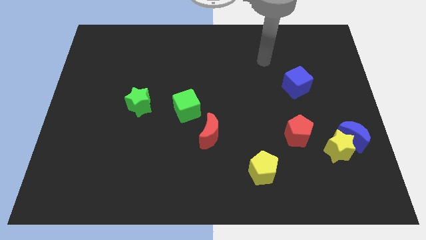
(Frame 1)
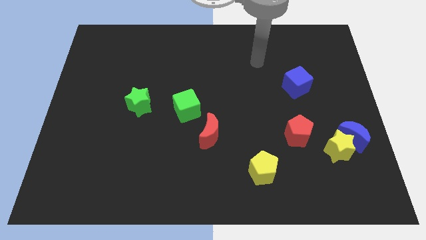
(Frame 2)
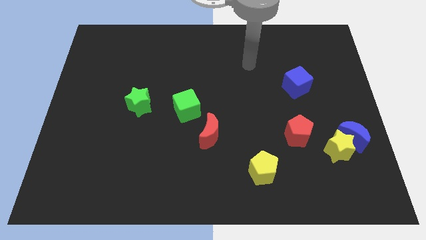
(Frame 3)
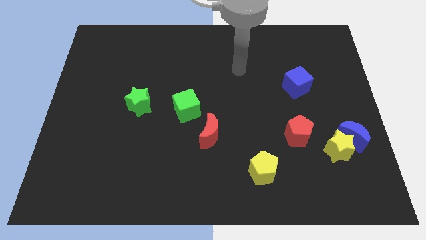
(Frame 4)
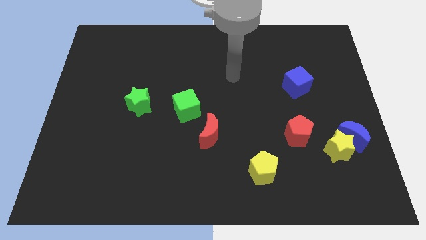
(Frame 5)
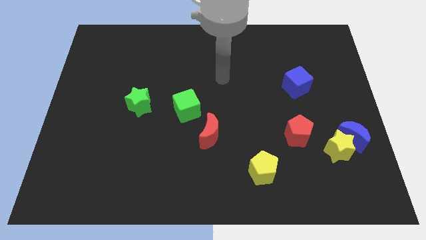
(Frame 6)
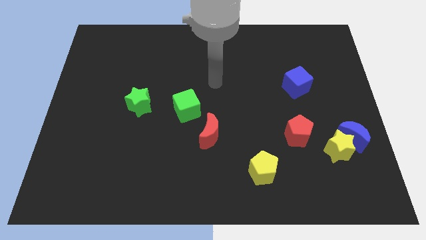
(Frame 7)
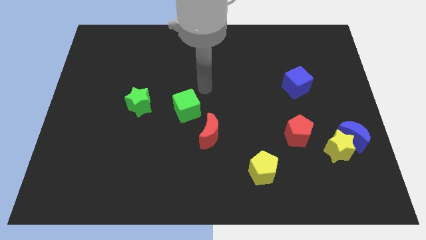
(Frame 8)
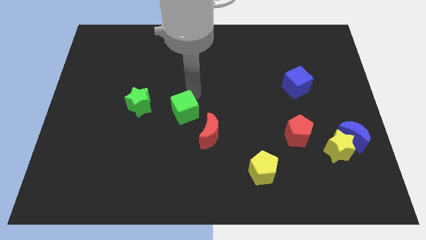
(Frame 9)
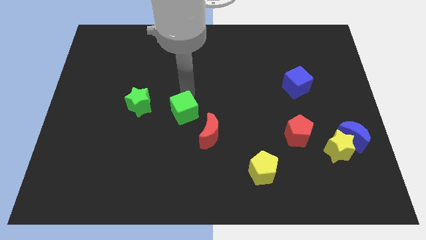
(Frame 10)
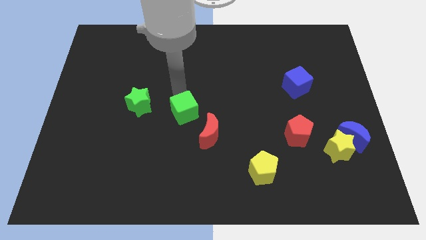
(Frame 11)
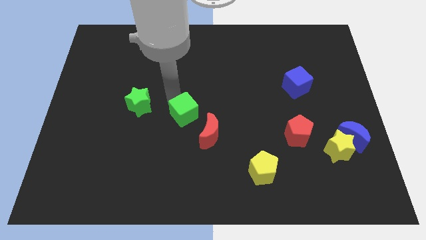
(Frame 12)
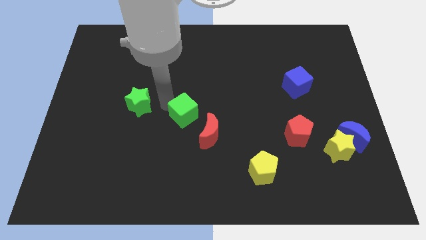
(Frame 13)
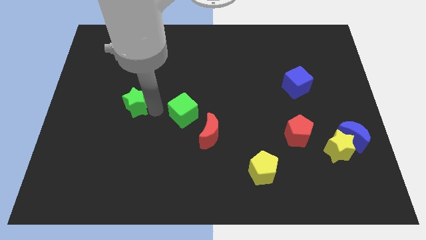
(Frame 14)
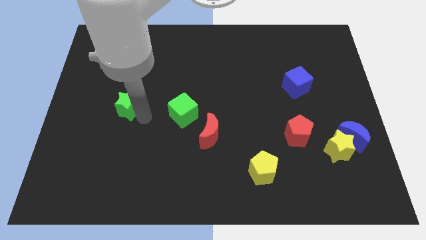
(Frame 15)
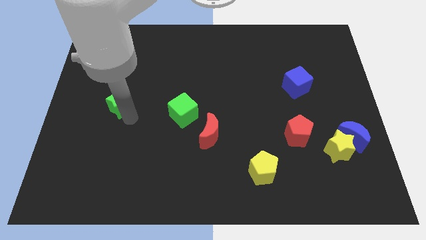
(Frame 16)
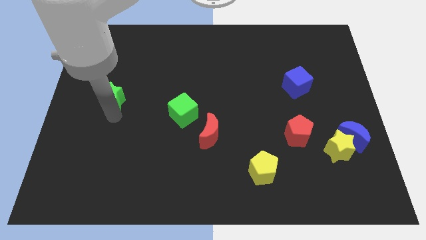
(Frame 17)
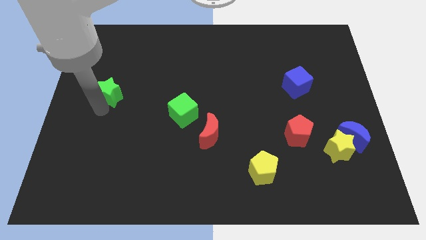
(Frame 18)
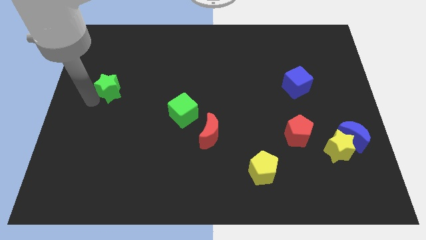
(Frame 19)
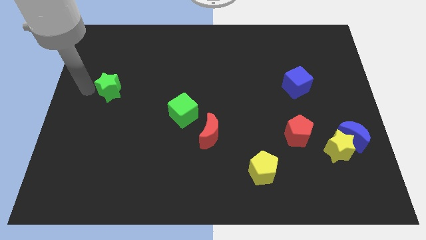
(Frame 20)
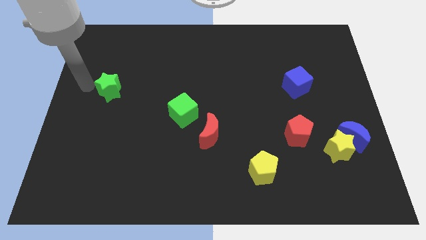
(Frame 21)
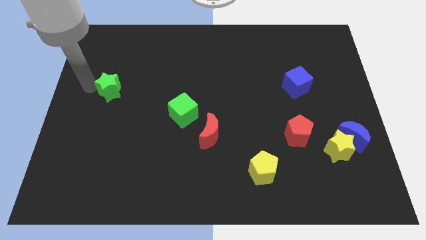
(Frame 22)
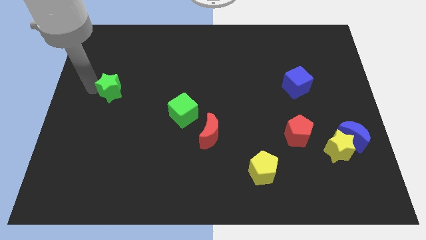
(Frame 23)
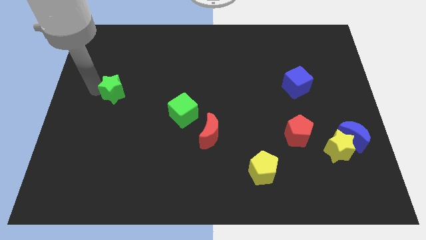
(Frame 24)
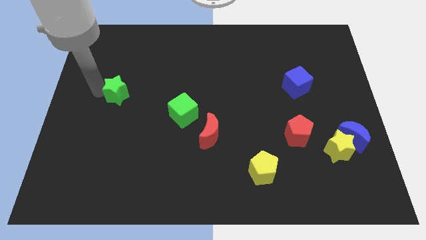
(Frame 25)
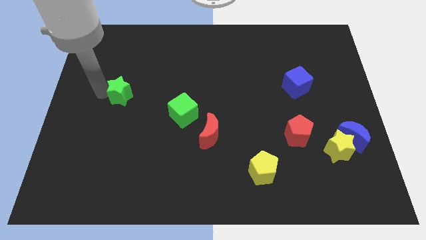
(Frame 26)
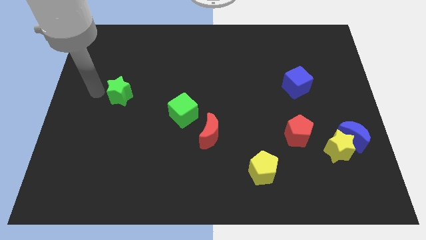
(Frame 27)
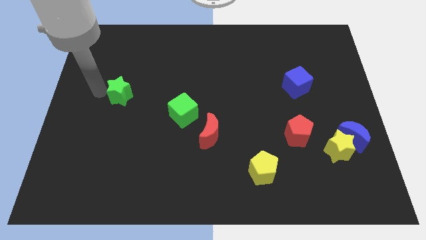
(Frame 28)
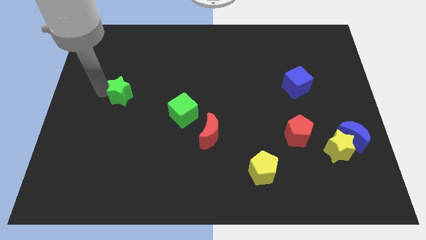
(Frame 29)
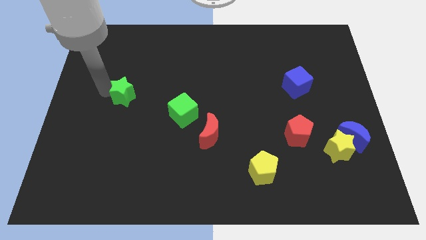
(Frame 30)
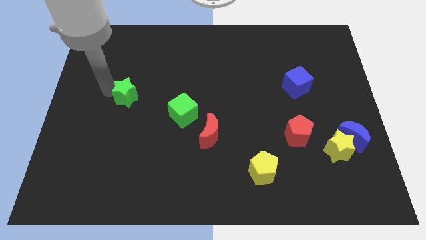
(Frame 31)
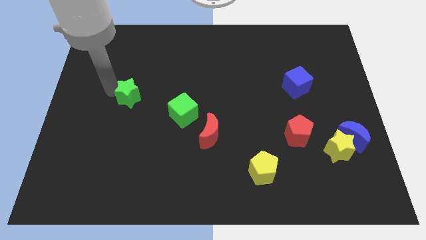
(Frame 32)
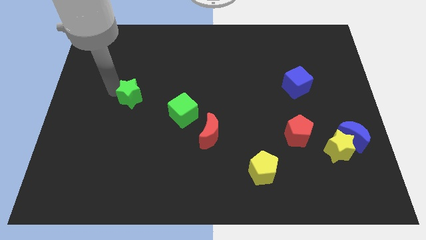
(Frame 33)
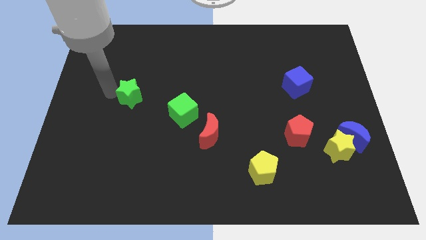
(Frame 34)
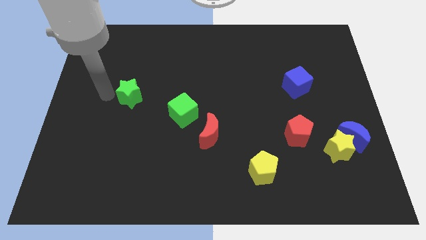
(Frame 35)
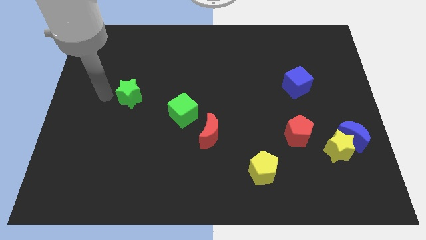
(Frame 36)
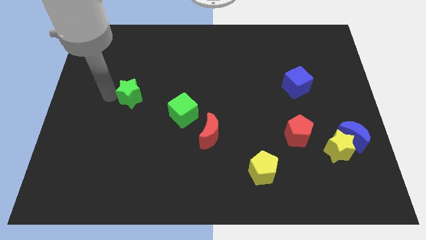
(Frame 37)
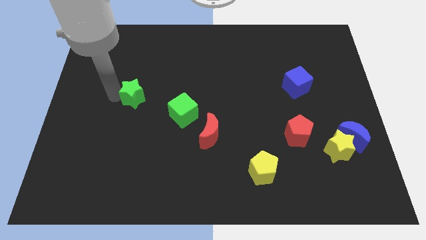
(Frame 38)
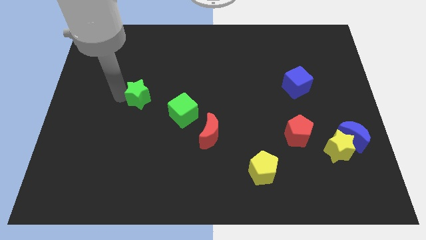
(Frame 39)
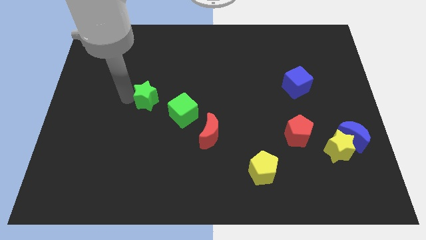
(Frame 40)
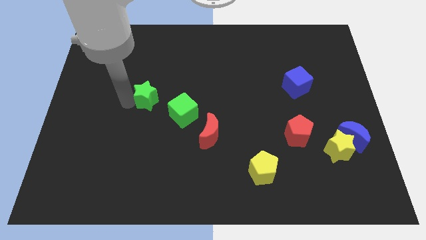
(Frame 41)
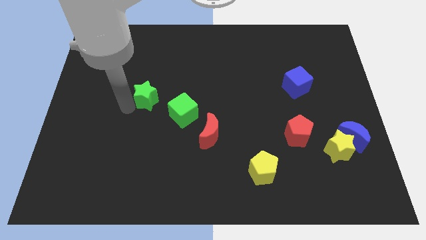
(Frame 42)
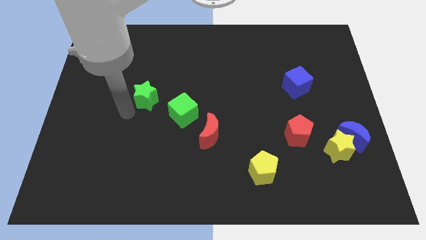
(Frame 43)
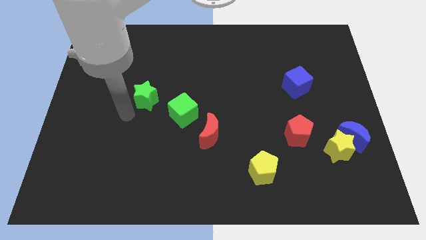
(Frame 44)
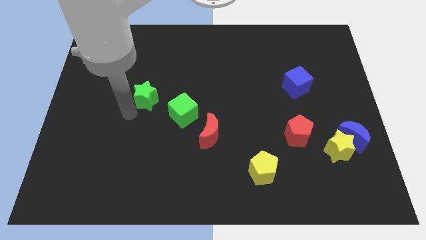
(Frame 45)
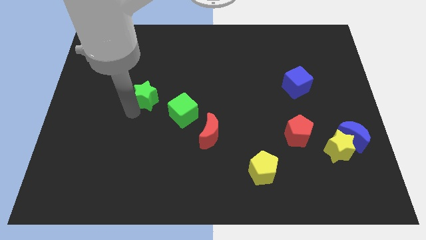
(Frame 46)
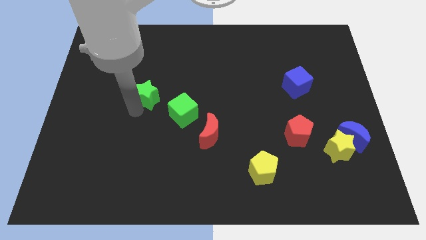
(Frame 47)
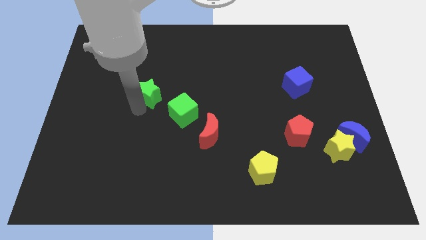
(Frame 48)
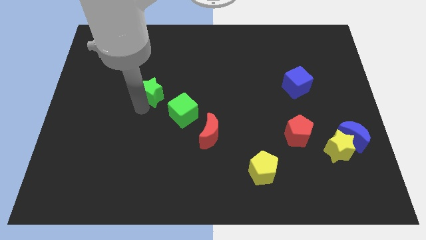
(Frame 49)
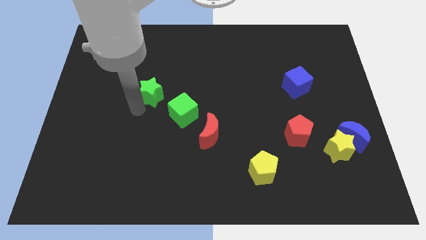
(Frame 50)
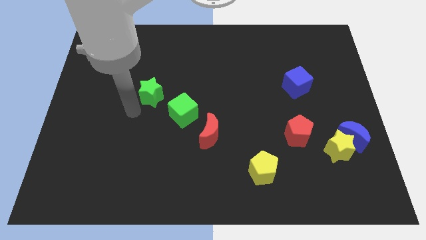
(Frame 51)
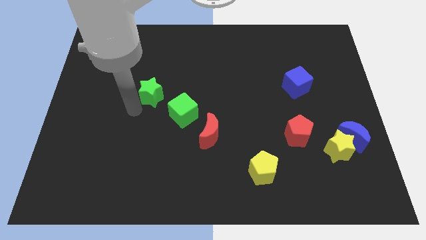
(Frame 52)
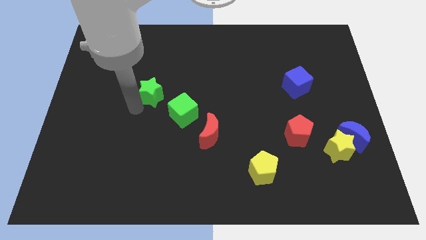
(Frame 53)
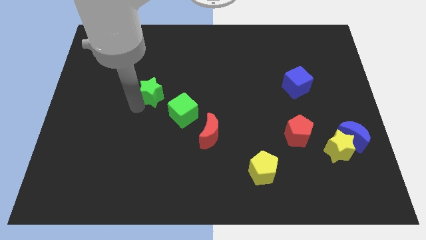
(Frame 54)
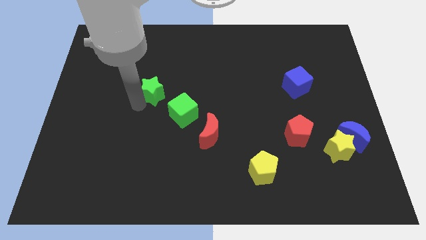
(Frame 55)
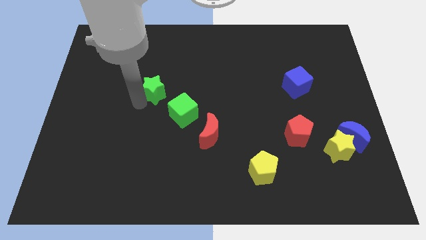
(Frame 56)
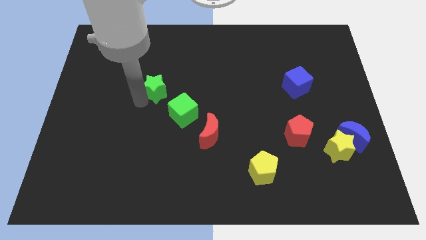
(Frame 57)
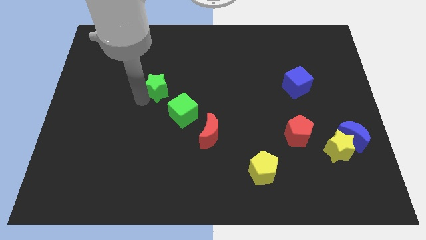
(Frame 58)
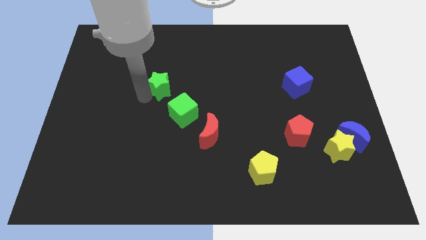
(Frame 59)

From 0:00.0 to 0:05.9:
slightly push the green star upwards and right diagonally

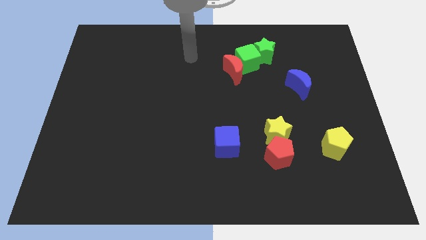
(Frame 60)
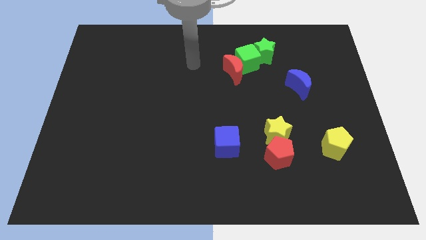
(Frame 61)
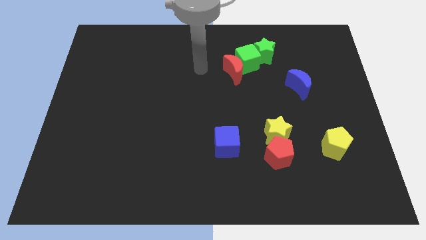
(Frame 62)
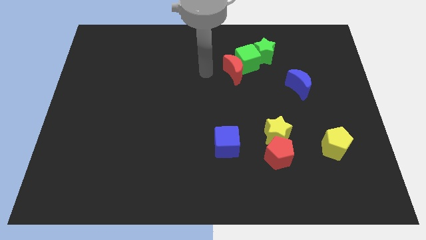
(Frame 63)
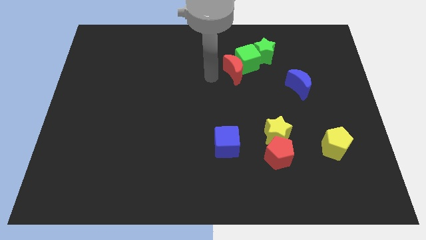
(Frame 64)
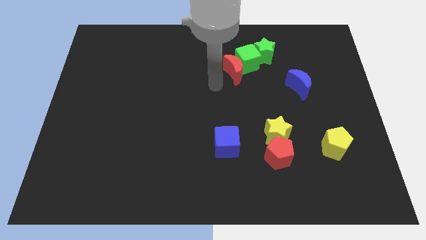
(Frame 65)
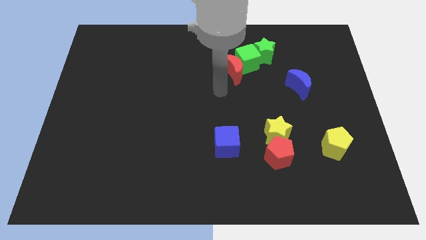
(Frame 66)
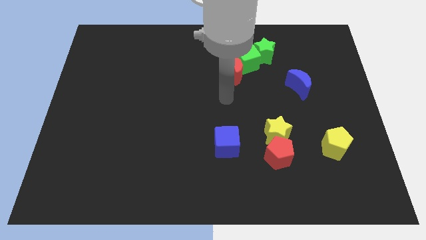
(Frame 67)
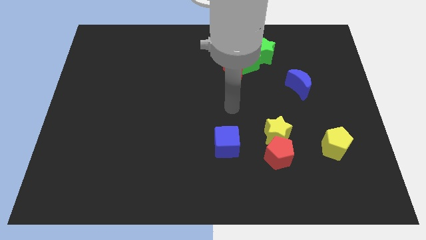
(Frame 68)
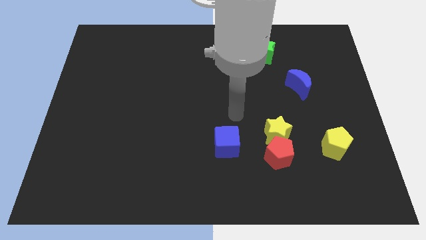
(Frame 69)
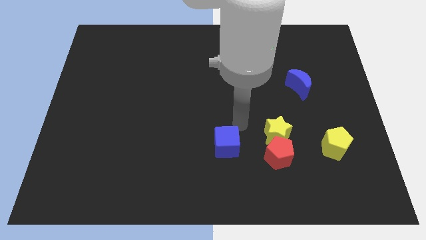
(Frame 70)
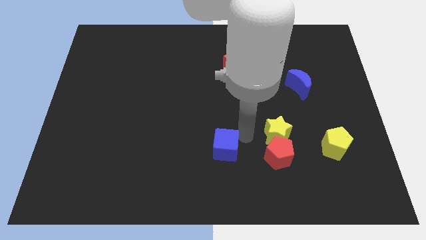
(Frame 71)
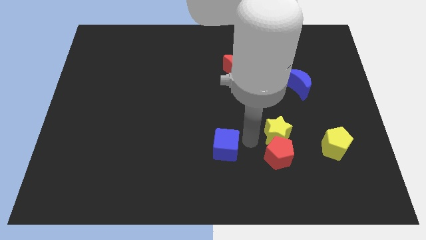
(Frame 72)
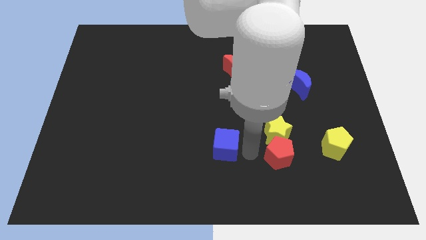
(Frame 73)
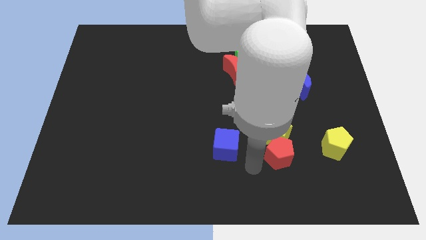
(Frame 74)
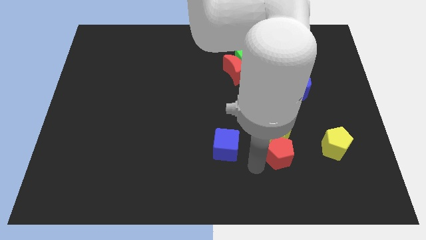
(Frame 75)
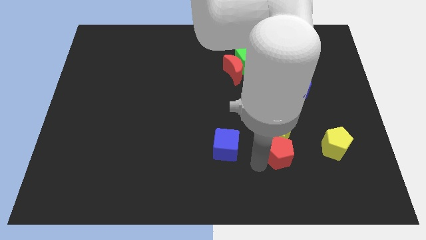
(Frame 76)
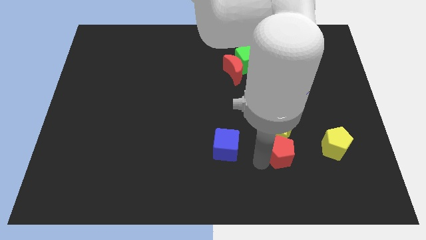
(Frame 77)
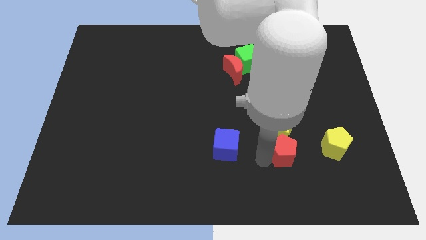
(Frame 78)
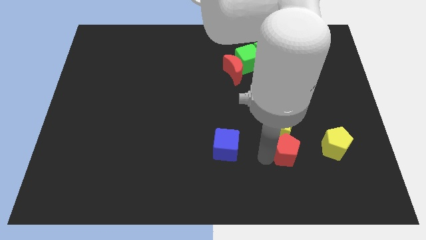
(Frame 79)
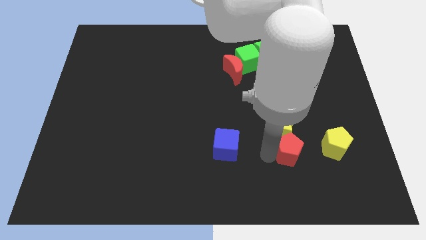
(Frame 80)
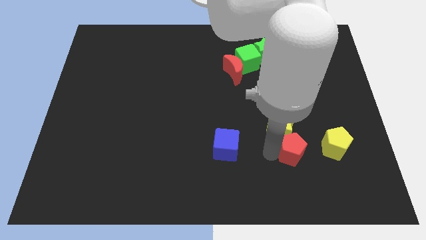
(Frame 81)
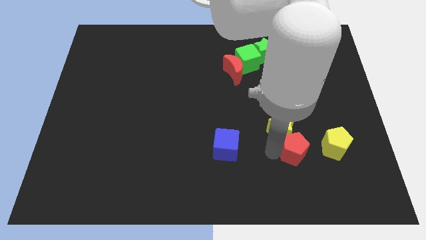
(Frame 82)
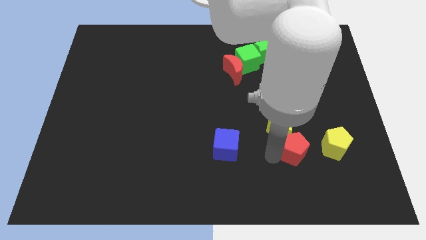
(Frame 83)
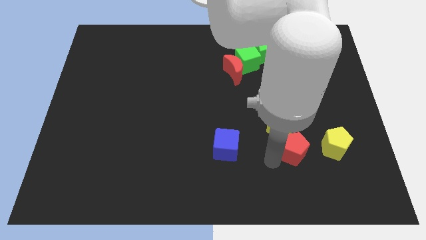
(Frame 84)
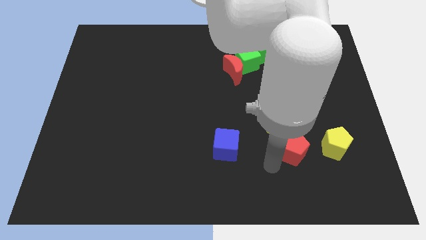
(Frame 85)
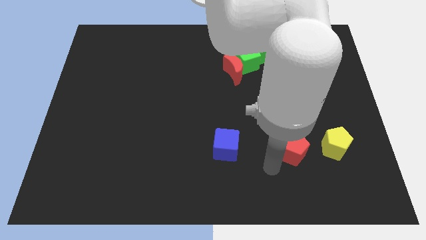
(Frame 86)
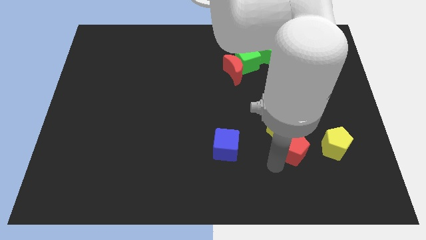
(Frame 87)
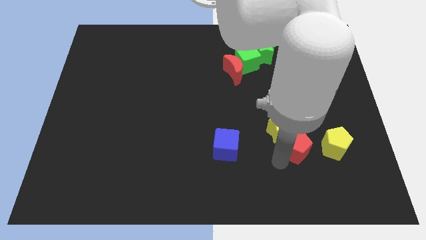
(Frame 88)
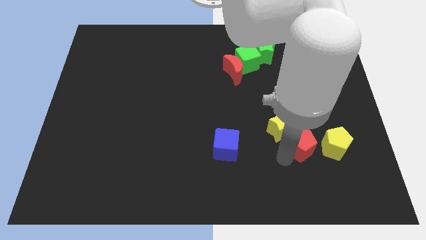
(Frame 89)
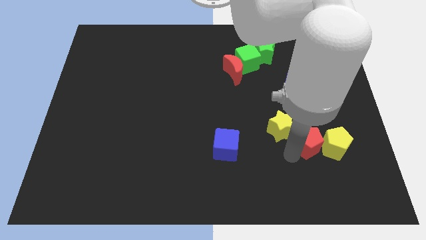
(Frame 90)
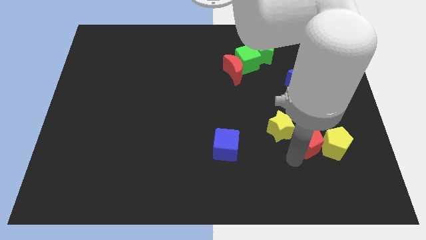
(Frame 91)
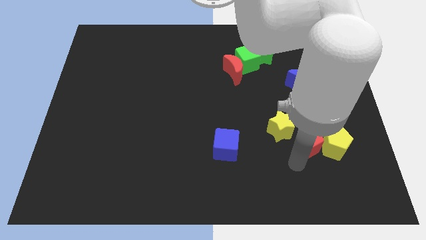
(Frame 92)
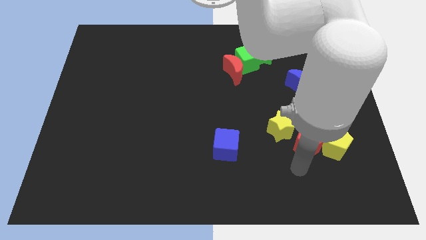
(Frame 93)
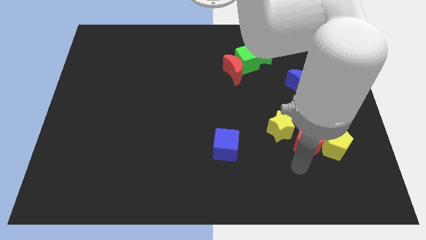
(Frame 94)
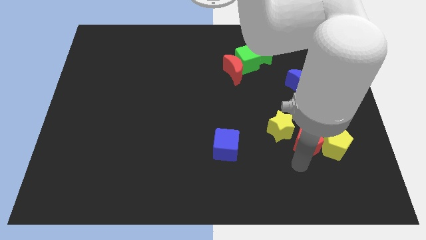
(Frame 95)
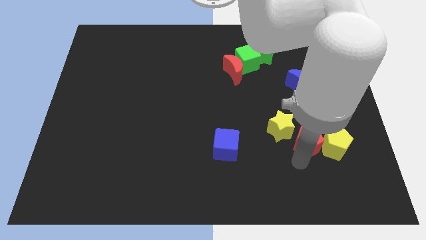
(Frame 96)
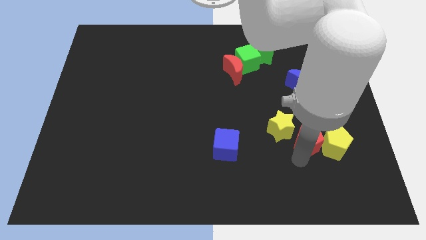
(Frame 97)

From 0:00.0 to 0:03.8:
slide the red pentagon slightly upwards and to the right diagonally
